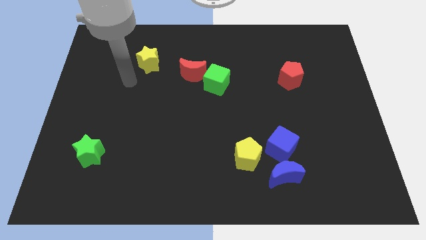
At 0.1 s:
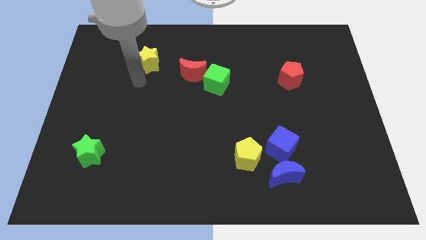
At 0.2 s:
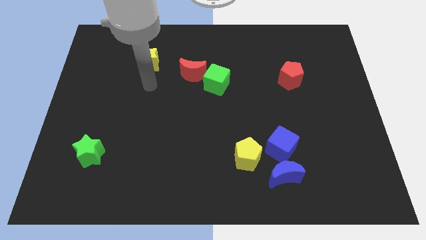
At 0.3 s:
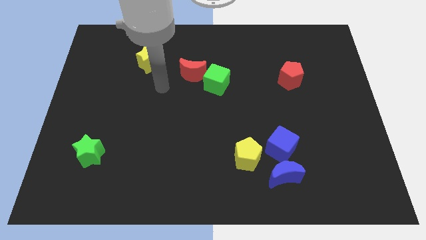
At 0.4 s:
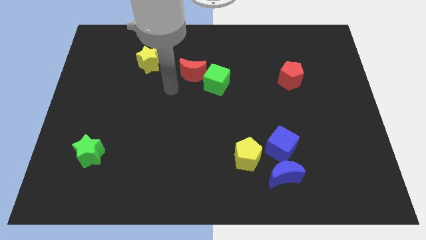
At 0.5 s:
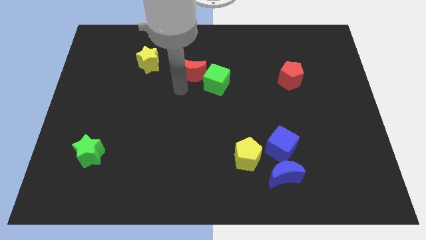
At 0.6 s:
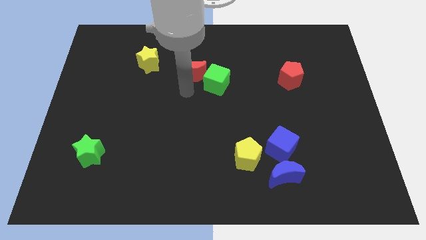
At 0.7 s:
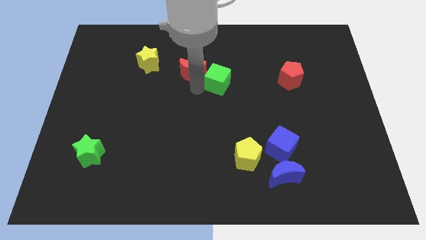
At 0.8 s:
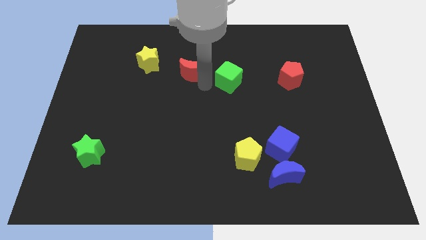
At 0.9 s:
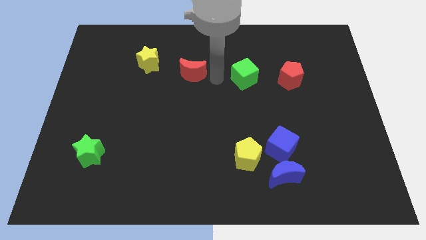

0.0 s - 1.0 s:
move the red moon away from the green cube

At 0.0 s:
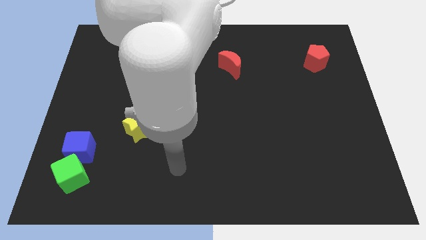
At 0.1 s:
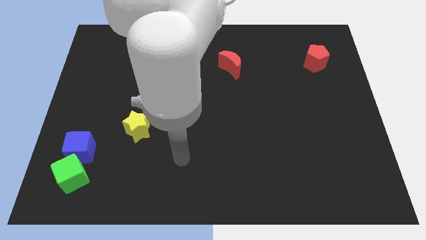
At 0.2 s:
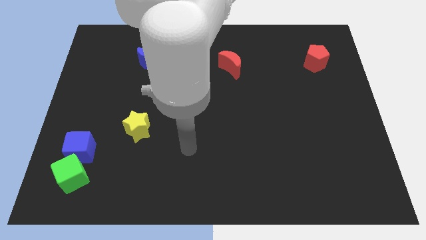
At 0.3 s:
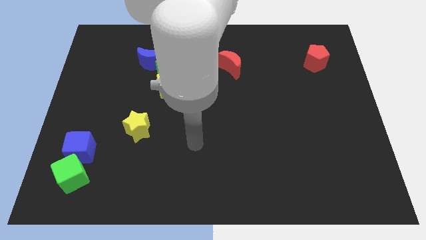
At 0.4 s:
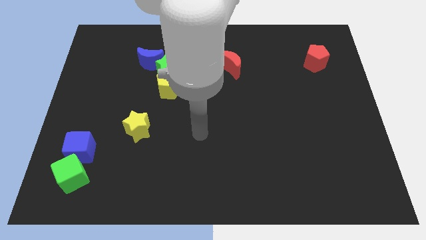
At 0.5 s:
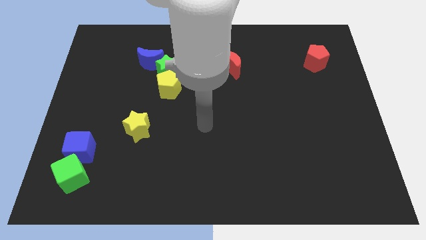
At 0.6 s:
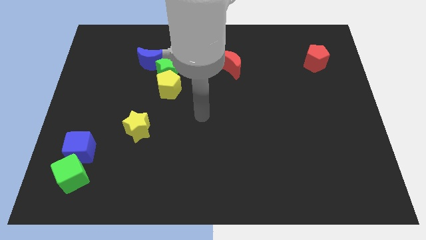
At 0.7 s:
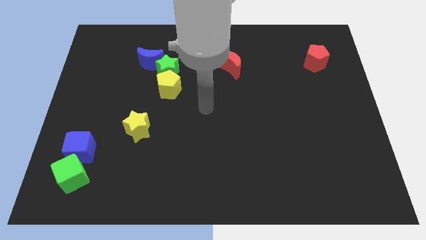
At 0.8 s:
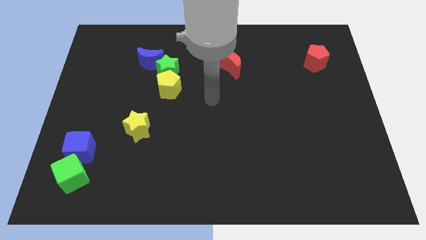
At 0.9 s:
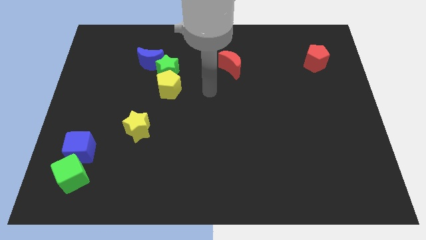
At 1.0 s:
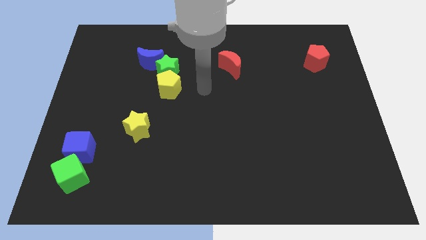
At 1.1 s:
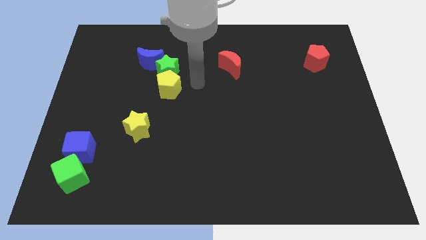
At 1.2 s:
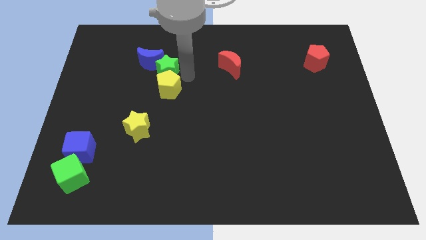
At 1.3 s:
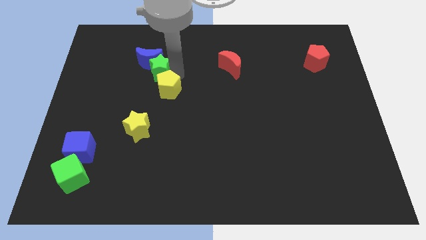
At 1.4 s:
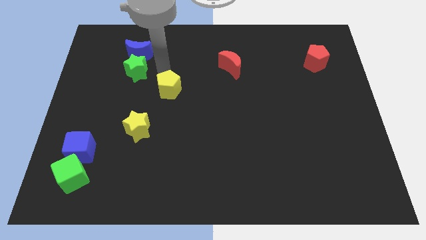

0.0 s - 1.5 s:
pull the yellow pentagon apart from the green star

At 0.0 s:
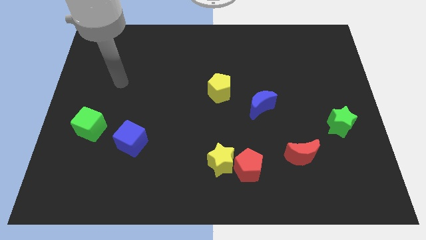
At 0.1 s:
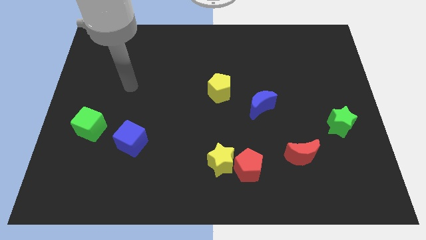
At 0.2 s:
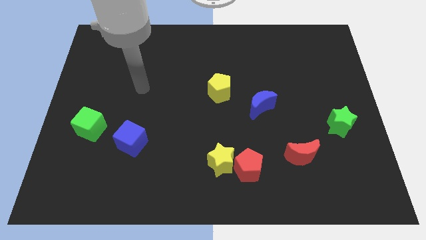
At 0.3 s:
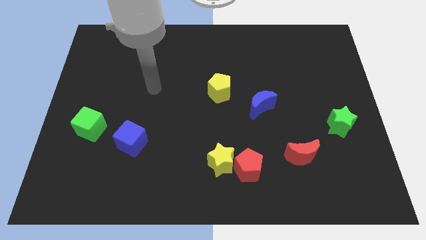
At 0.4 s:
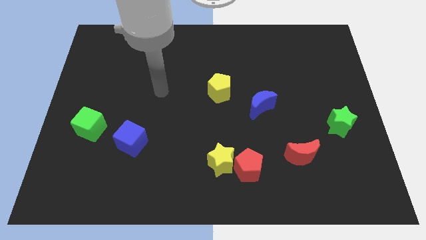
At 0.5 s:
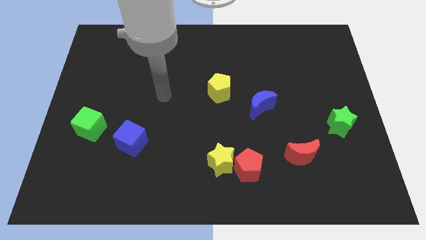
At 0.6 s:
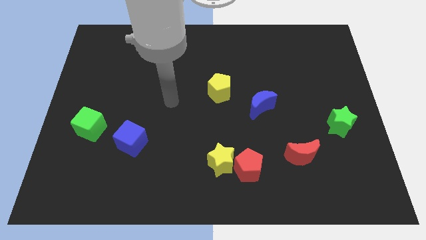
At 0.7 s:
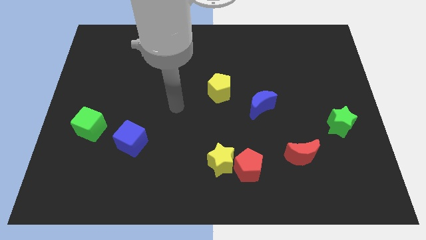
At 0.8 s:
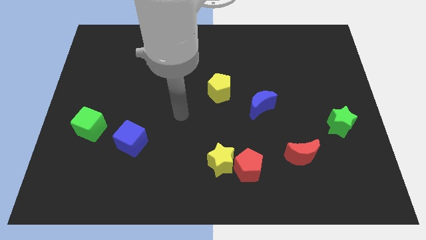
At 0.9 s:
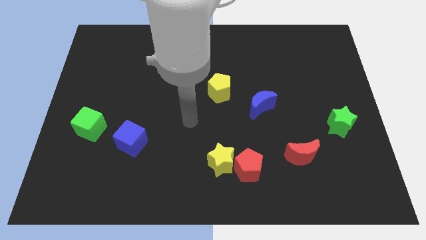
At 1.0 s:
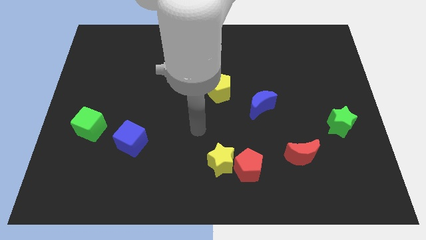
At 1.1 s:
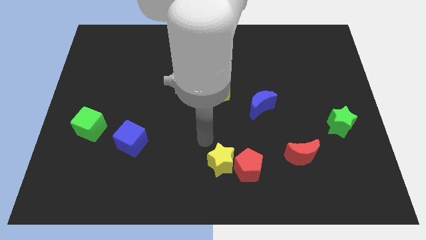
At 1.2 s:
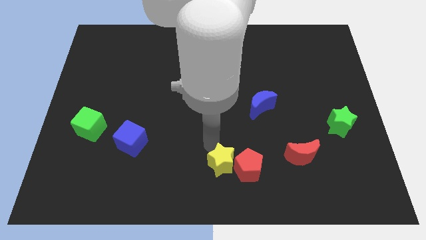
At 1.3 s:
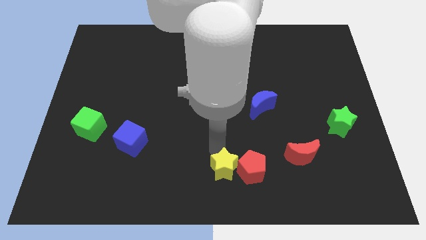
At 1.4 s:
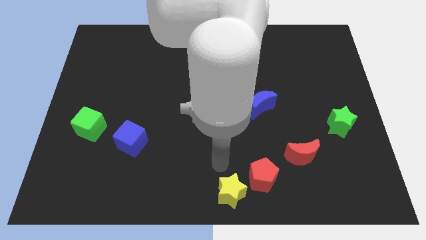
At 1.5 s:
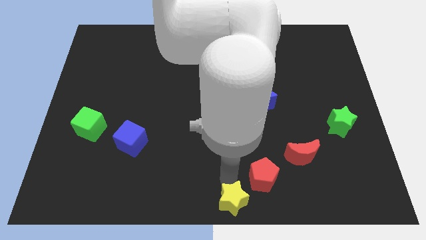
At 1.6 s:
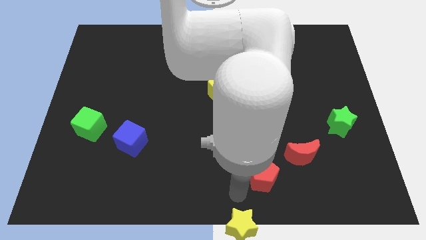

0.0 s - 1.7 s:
pull the red pentagon apart from the yellow star

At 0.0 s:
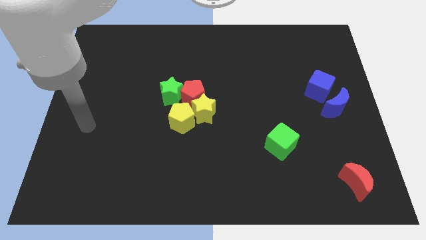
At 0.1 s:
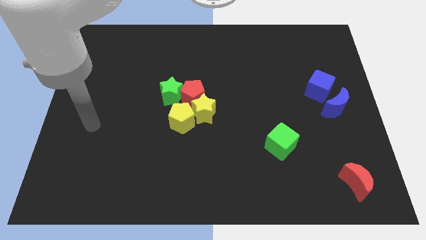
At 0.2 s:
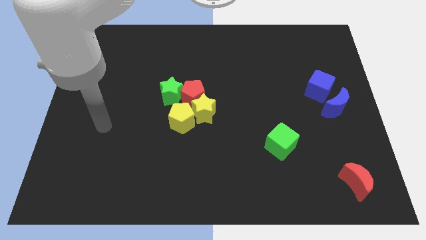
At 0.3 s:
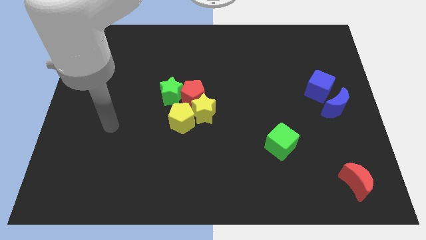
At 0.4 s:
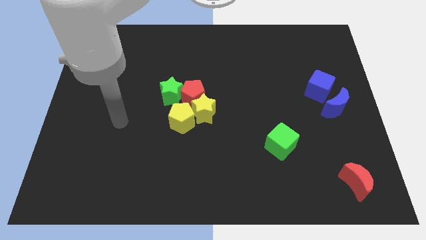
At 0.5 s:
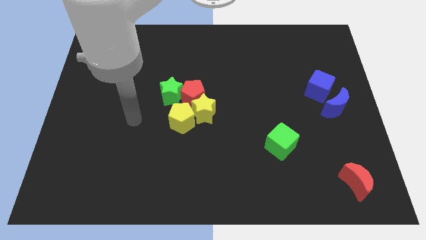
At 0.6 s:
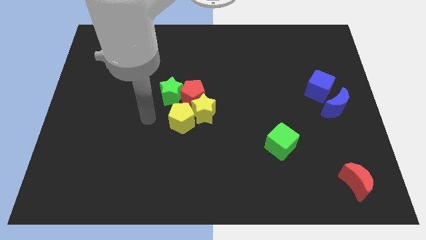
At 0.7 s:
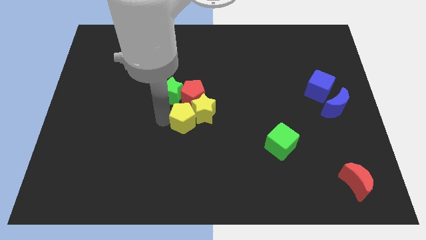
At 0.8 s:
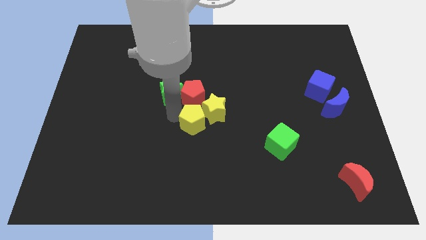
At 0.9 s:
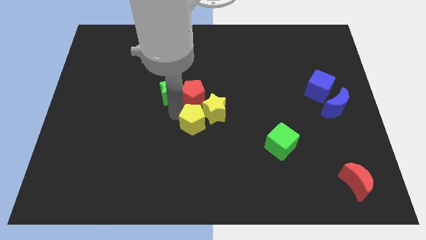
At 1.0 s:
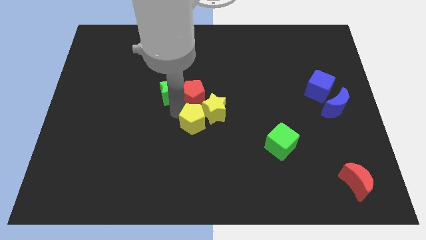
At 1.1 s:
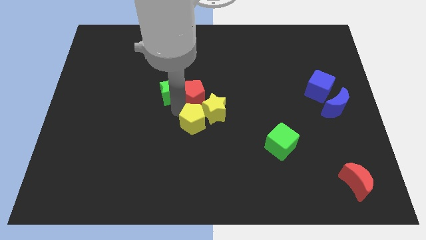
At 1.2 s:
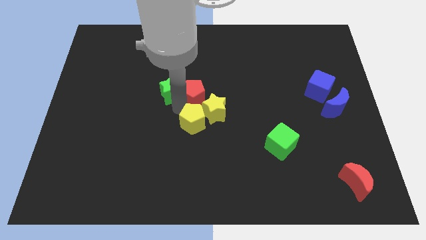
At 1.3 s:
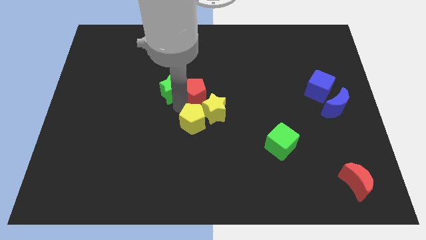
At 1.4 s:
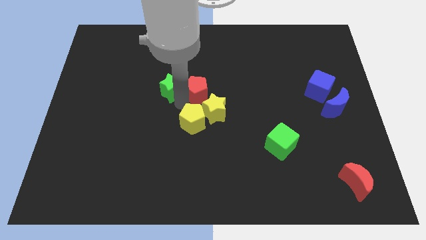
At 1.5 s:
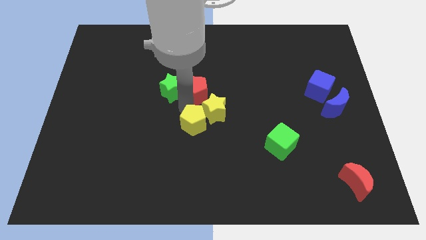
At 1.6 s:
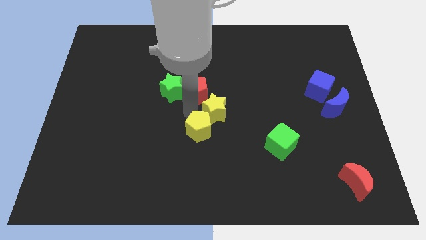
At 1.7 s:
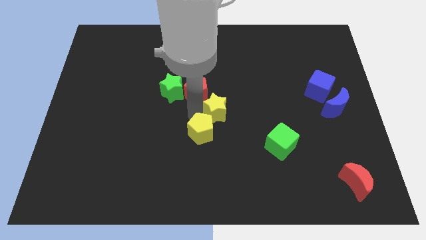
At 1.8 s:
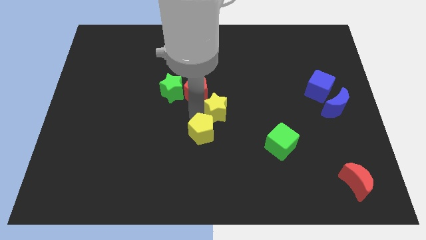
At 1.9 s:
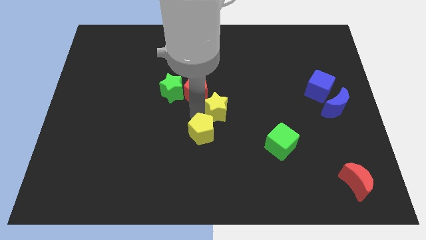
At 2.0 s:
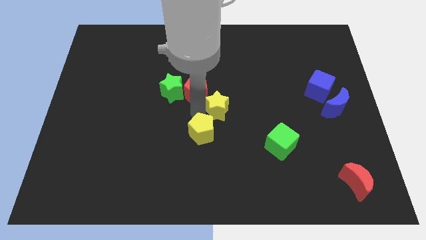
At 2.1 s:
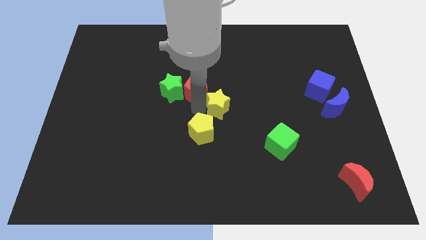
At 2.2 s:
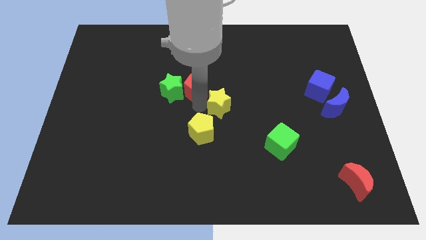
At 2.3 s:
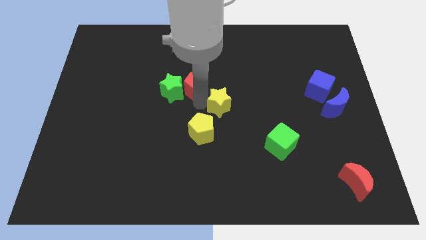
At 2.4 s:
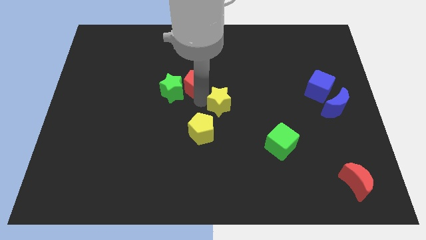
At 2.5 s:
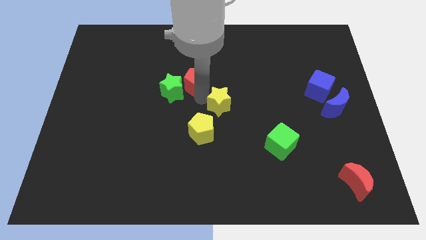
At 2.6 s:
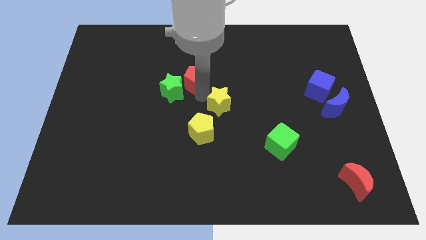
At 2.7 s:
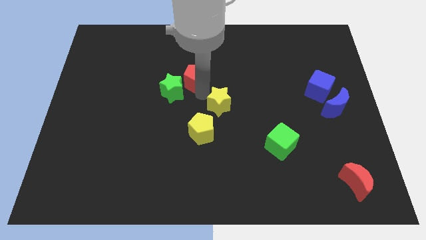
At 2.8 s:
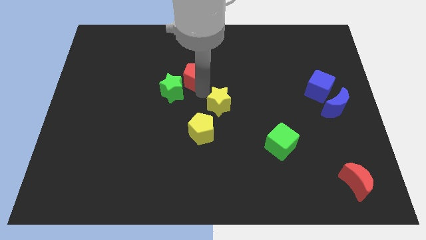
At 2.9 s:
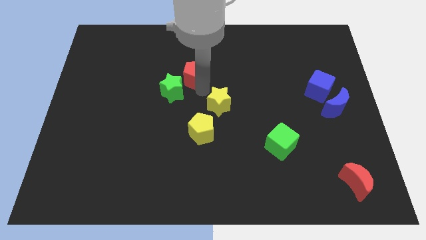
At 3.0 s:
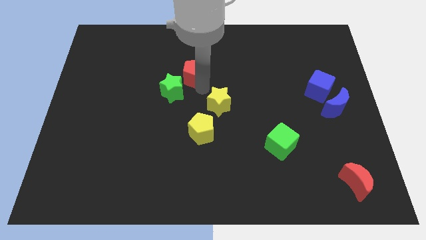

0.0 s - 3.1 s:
pull the red pentagon apart from the green star, yellow star, and yellow pentagon

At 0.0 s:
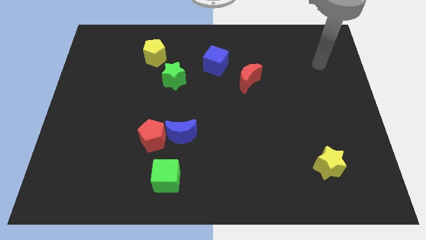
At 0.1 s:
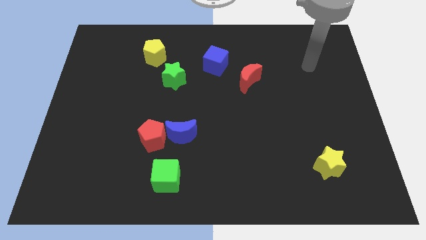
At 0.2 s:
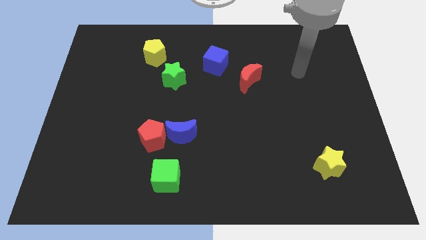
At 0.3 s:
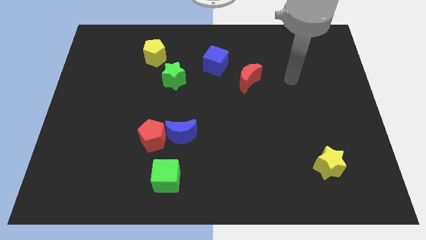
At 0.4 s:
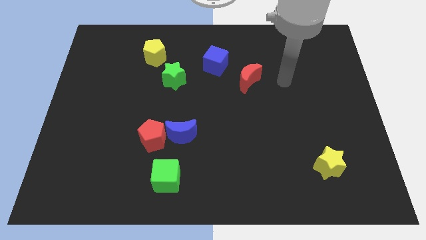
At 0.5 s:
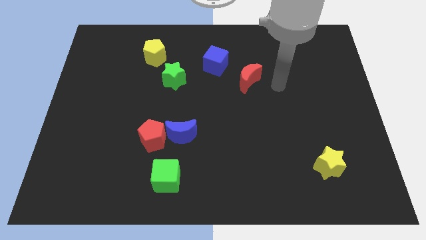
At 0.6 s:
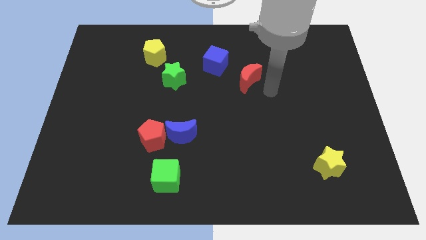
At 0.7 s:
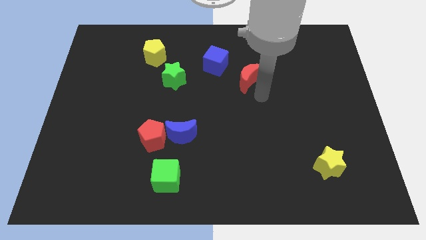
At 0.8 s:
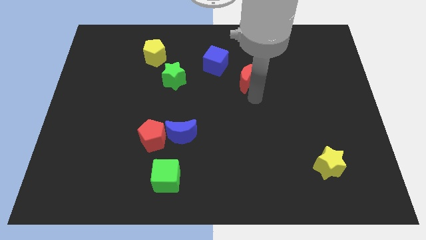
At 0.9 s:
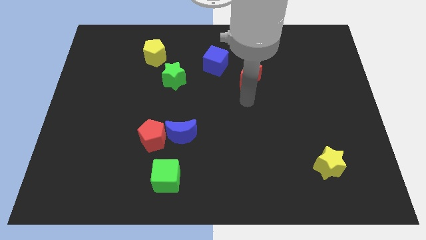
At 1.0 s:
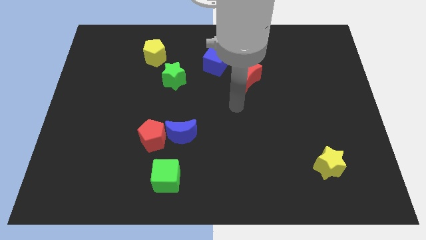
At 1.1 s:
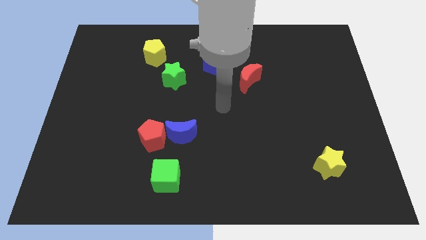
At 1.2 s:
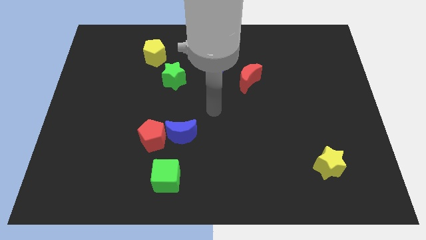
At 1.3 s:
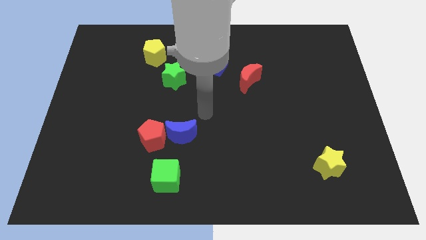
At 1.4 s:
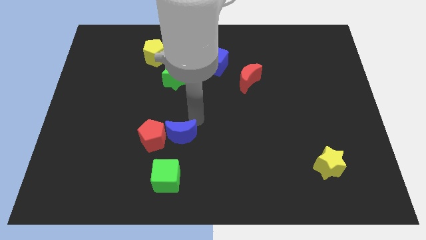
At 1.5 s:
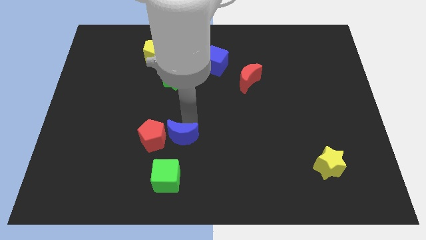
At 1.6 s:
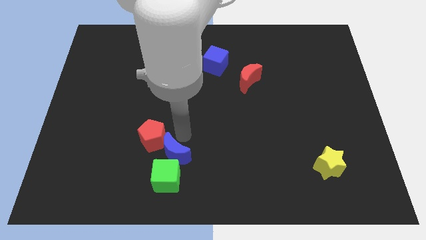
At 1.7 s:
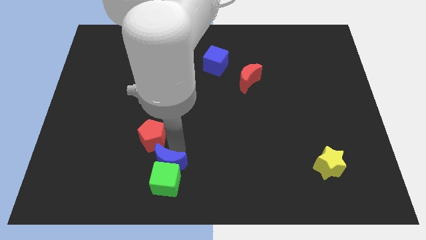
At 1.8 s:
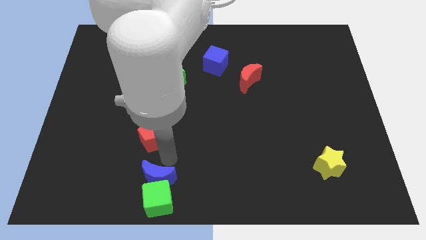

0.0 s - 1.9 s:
move the red pentagon away from the blue moon
